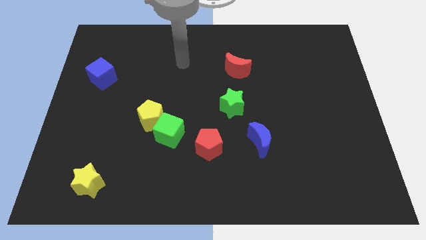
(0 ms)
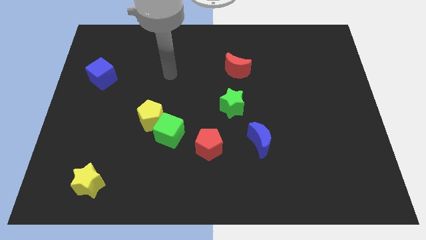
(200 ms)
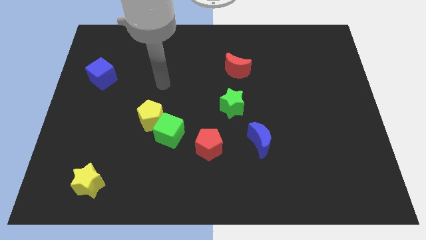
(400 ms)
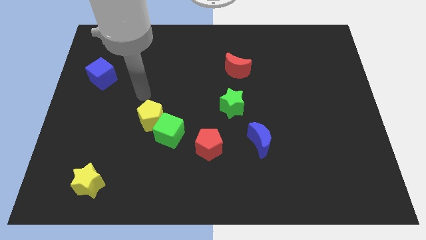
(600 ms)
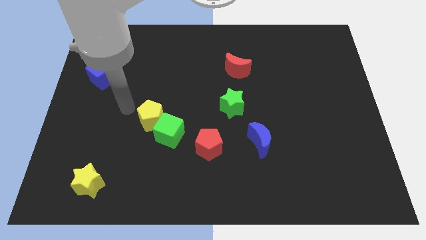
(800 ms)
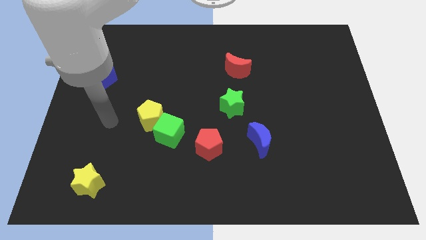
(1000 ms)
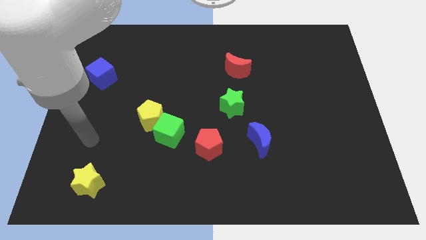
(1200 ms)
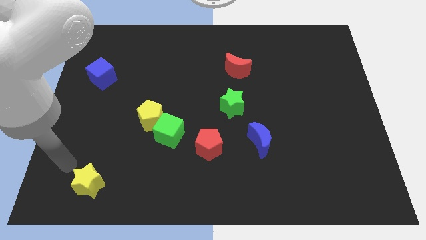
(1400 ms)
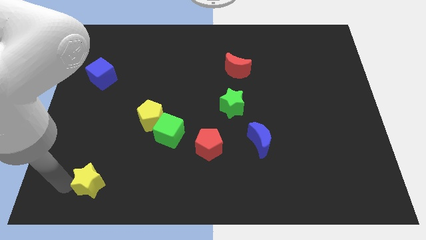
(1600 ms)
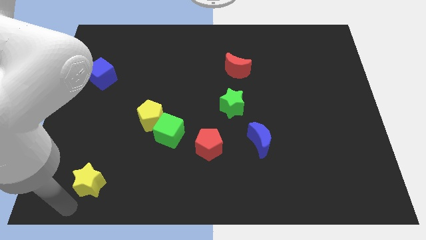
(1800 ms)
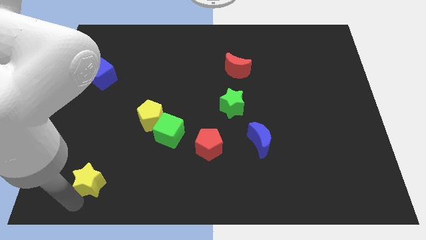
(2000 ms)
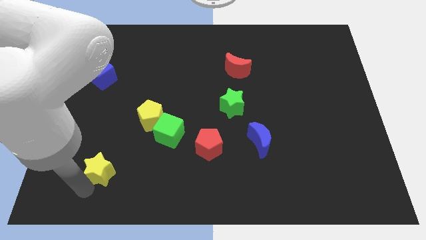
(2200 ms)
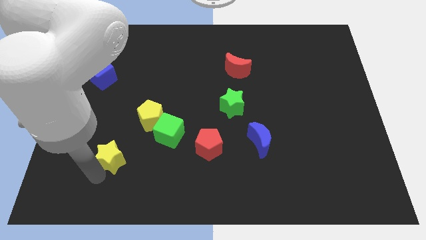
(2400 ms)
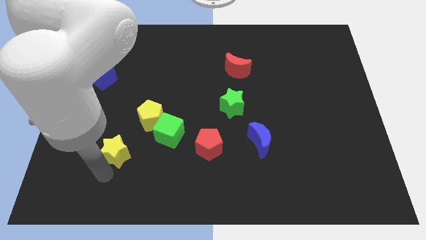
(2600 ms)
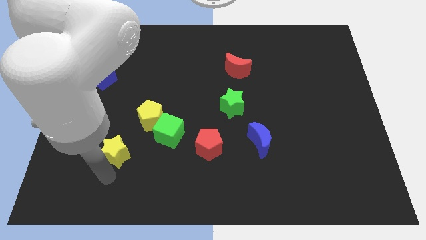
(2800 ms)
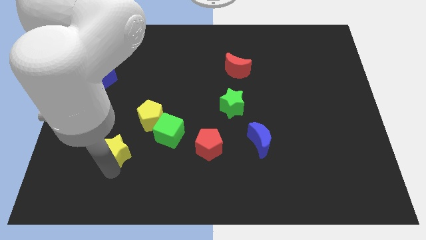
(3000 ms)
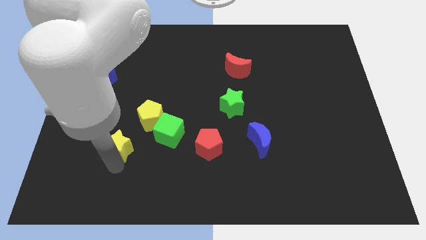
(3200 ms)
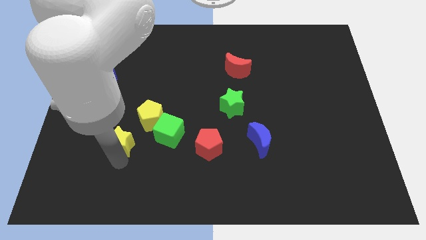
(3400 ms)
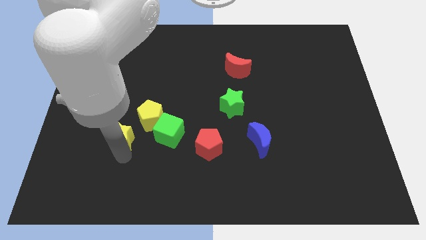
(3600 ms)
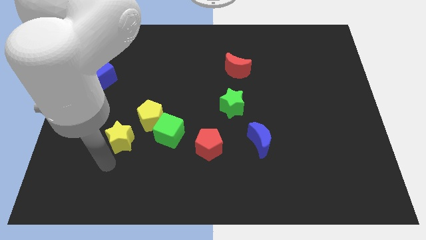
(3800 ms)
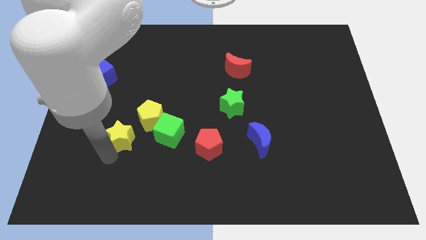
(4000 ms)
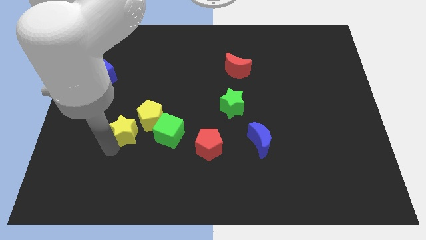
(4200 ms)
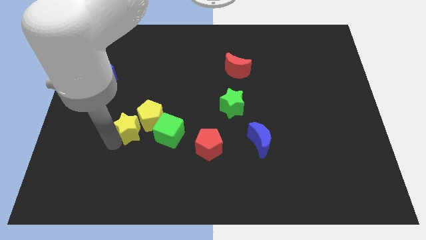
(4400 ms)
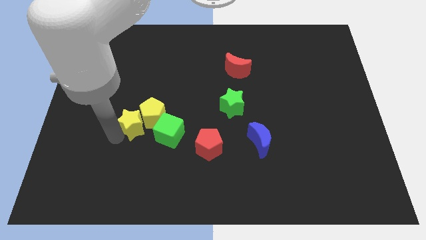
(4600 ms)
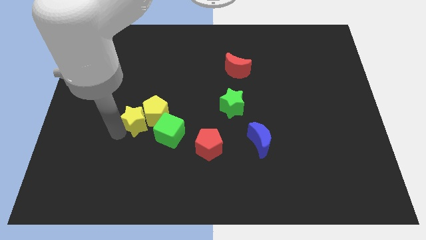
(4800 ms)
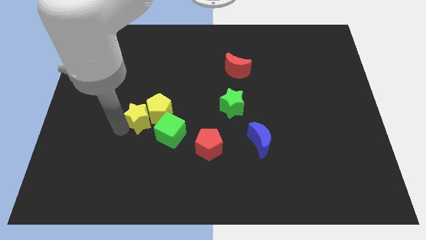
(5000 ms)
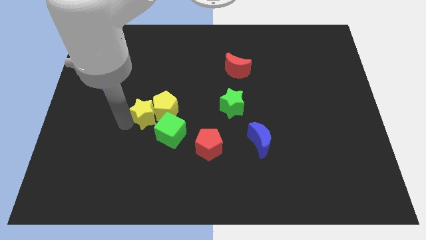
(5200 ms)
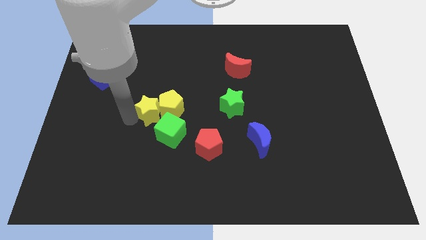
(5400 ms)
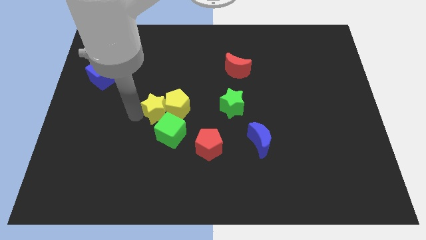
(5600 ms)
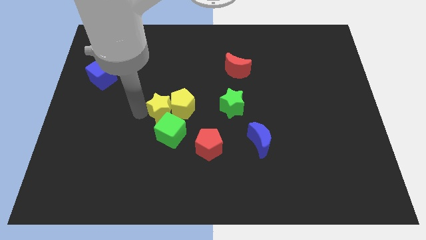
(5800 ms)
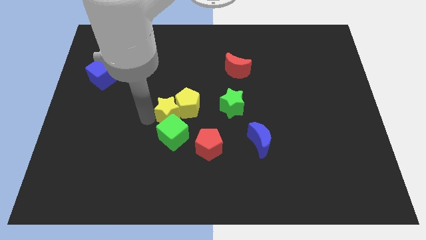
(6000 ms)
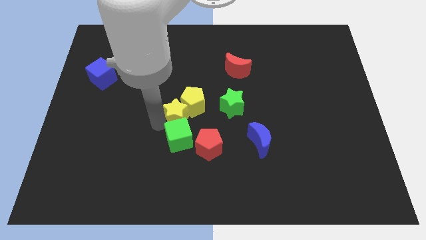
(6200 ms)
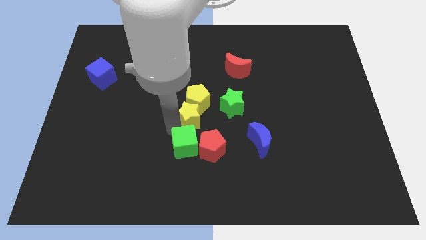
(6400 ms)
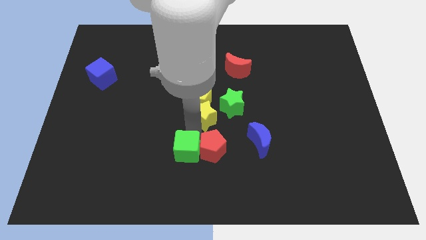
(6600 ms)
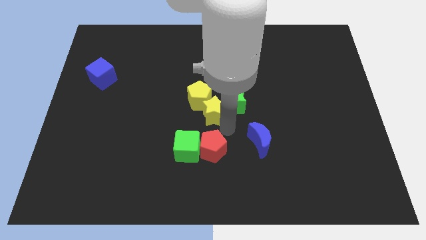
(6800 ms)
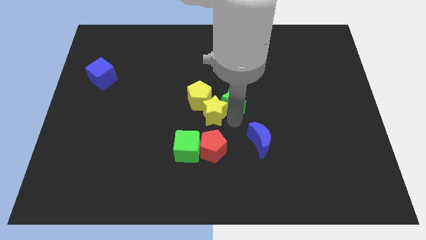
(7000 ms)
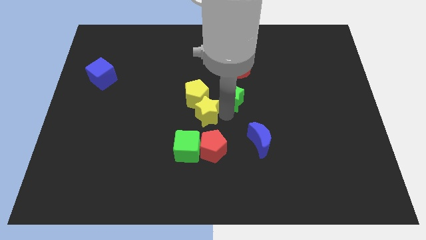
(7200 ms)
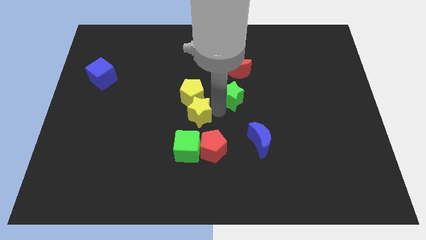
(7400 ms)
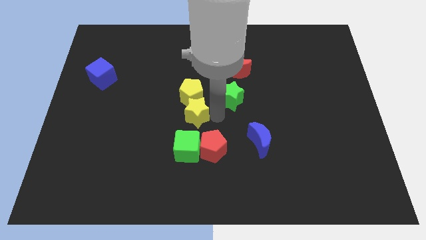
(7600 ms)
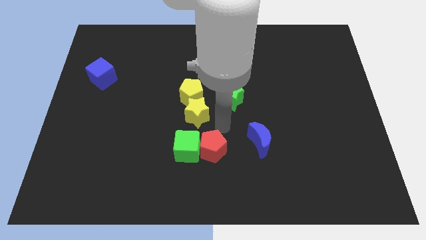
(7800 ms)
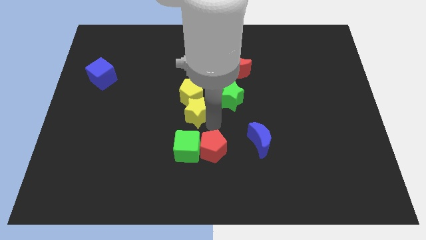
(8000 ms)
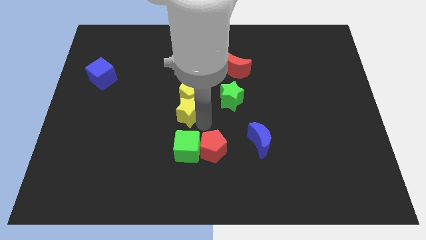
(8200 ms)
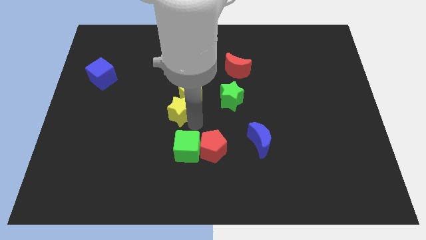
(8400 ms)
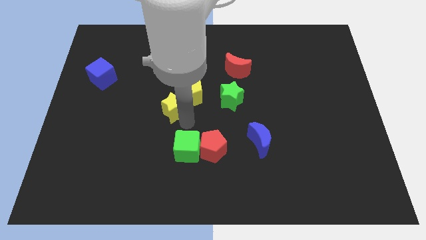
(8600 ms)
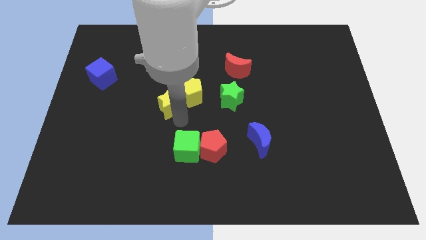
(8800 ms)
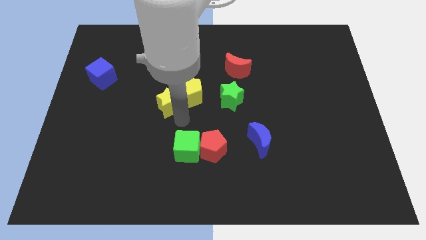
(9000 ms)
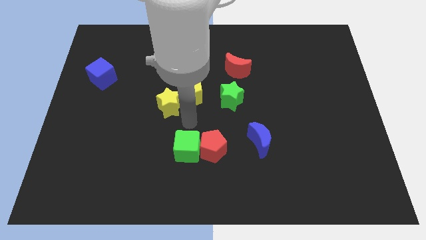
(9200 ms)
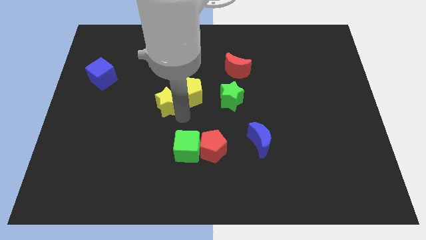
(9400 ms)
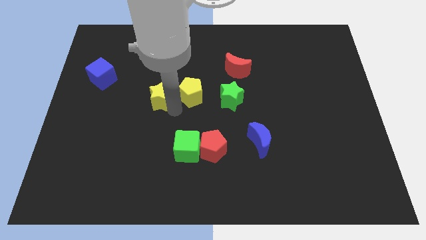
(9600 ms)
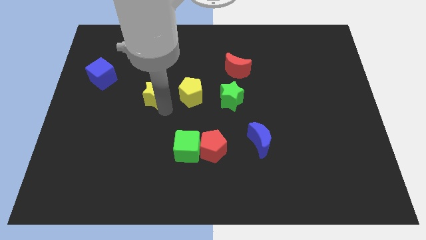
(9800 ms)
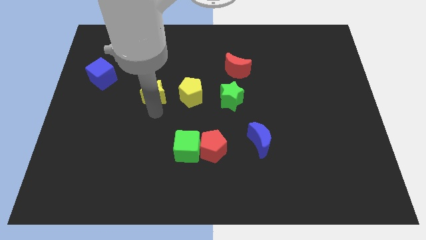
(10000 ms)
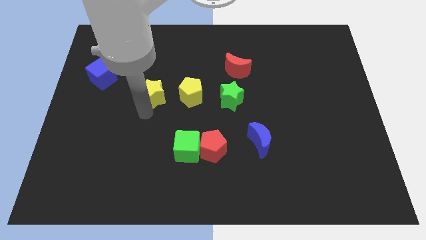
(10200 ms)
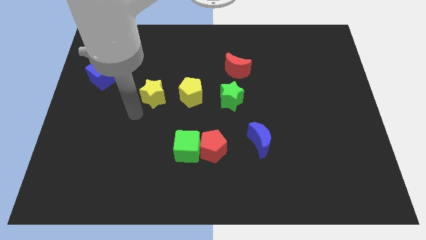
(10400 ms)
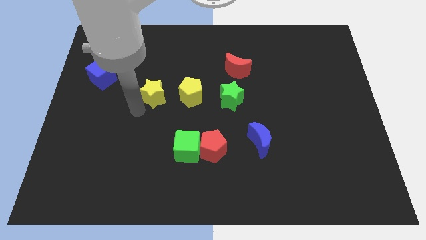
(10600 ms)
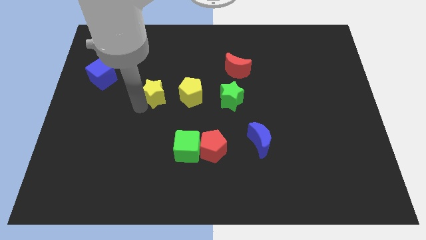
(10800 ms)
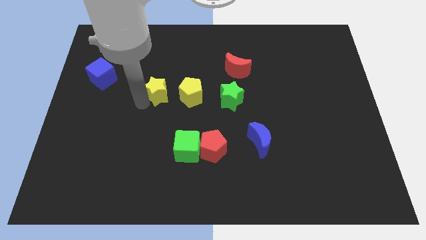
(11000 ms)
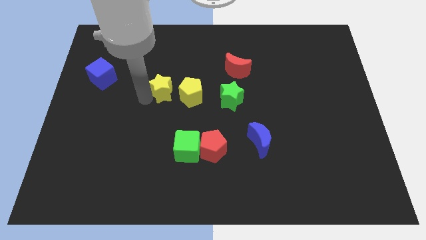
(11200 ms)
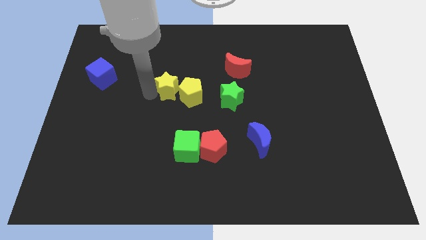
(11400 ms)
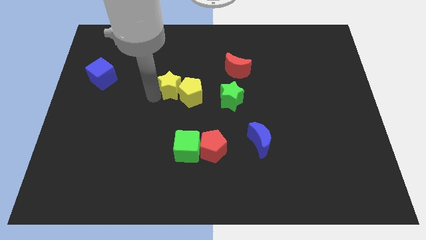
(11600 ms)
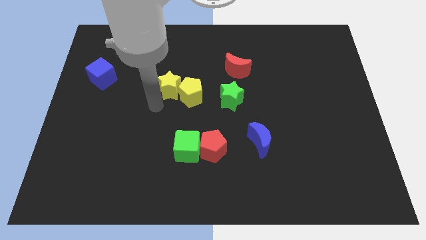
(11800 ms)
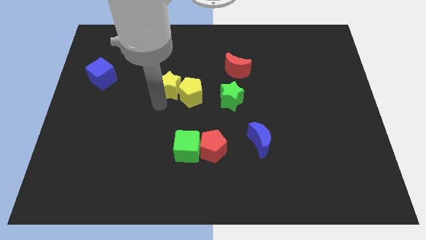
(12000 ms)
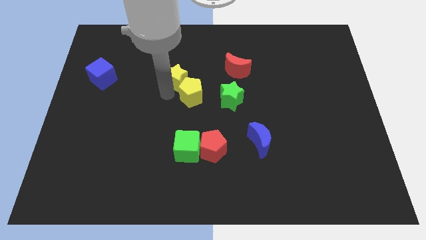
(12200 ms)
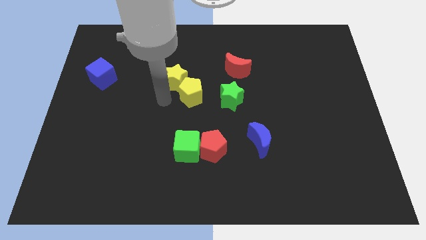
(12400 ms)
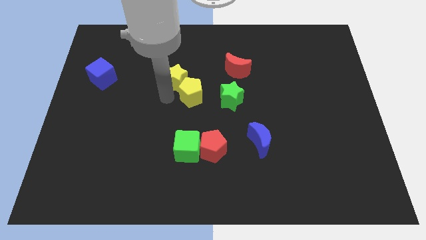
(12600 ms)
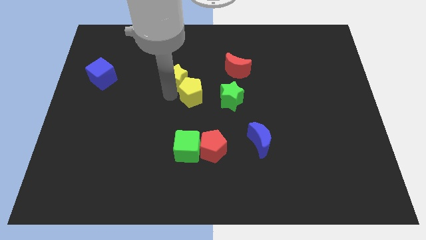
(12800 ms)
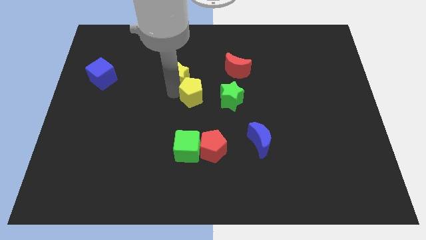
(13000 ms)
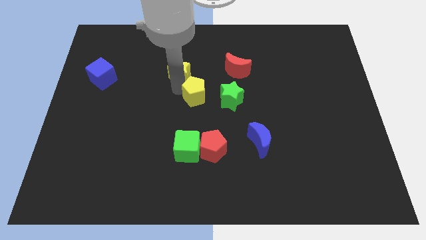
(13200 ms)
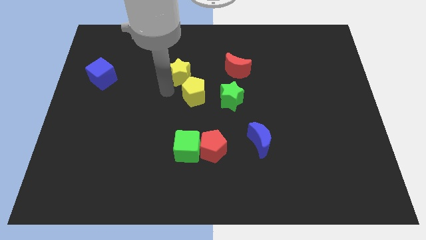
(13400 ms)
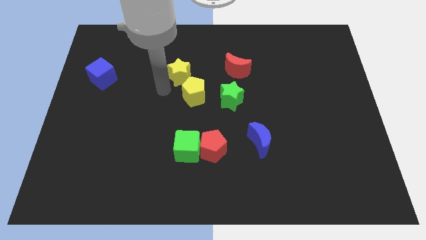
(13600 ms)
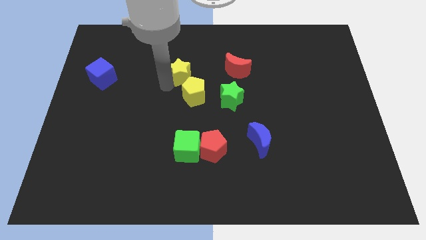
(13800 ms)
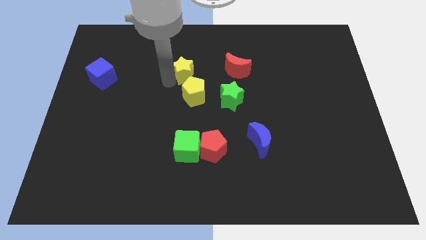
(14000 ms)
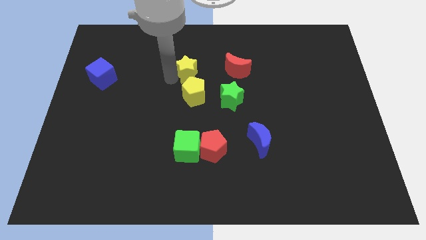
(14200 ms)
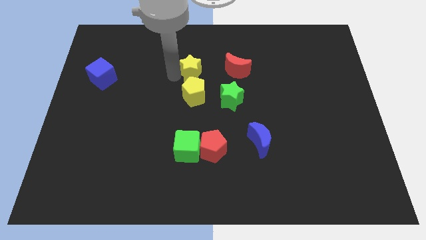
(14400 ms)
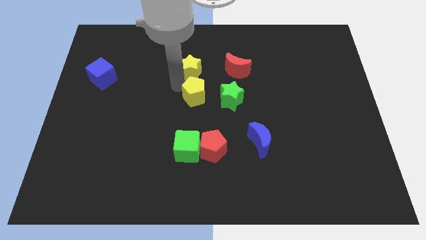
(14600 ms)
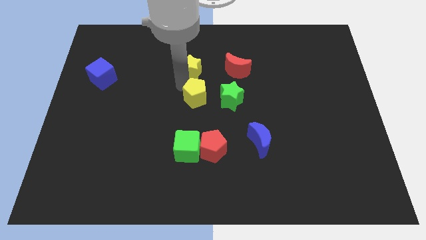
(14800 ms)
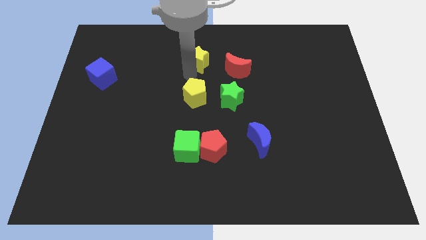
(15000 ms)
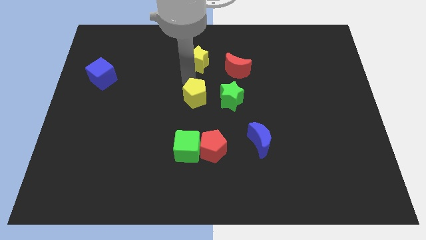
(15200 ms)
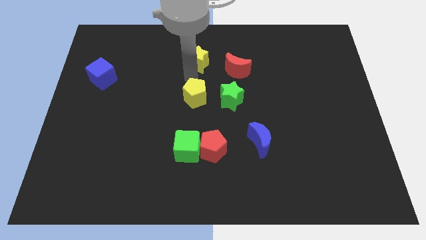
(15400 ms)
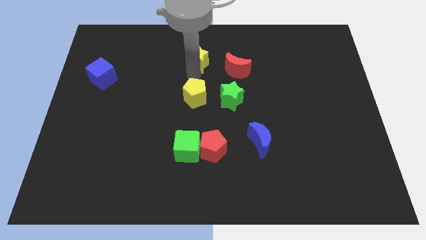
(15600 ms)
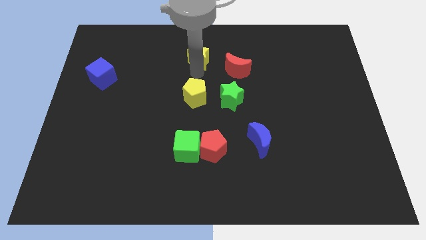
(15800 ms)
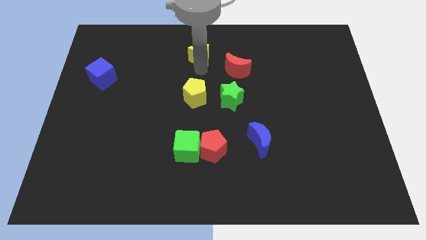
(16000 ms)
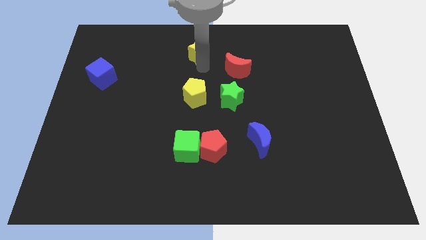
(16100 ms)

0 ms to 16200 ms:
slide the yellow star to the top side
